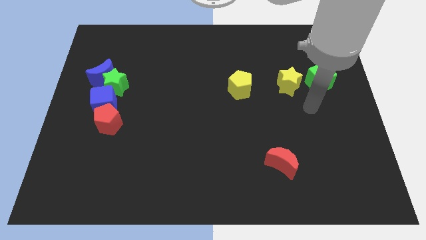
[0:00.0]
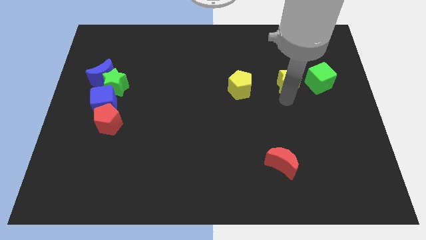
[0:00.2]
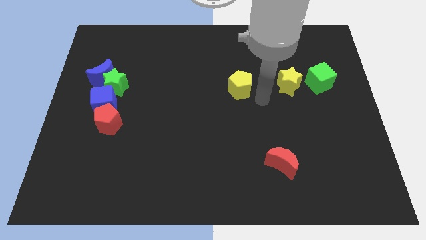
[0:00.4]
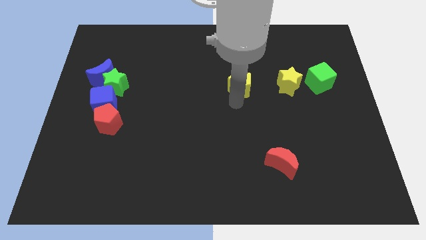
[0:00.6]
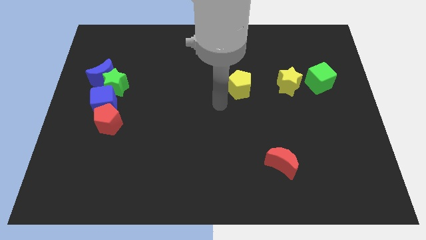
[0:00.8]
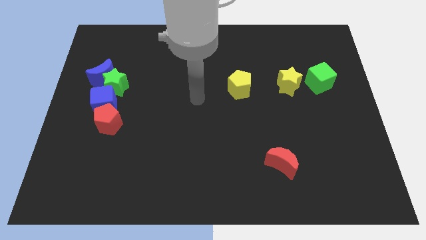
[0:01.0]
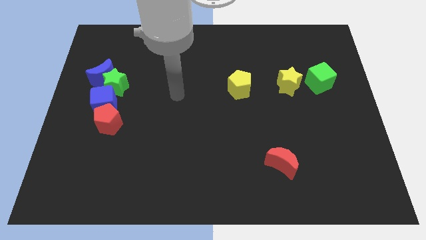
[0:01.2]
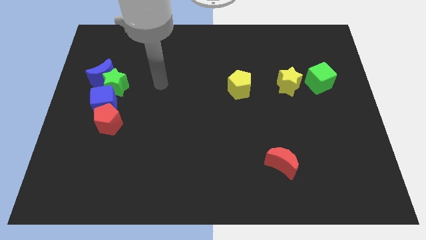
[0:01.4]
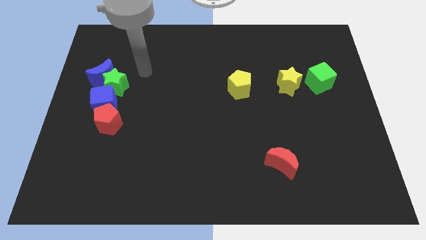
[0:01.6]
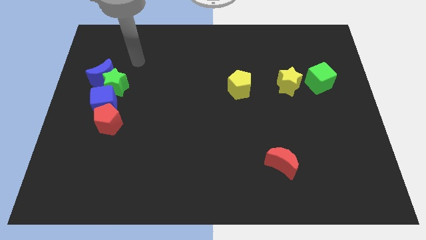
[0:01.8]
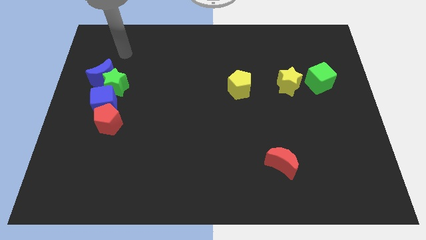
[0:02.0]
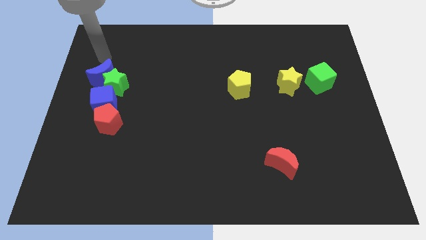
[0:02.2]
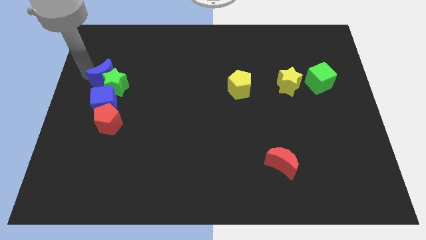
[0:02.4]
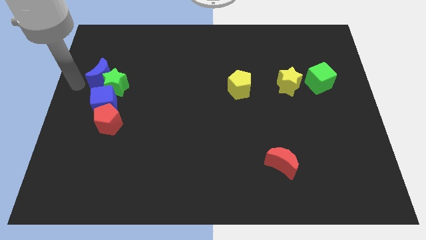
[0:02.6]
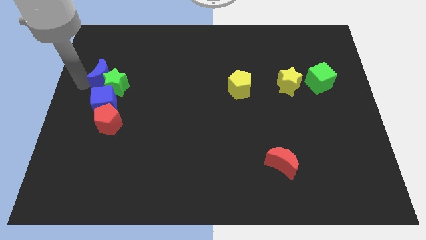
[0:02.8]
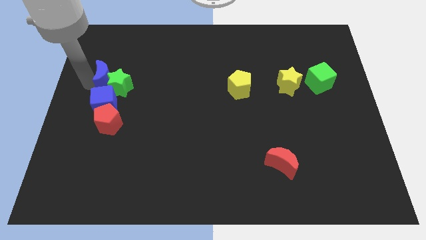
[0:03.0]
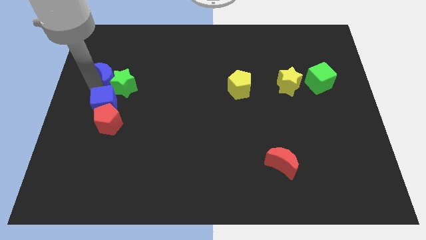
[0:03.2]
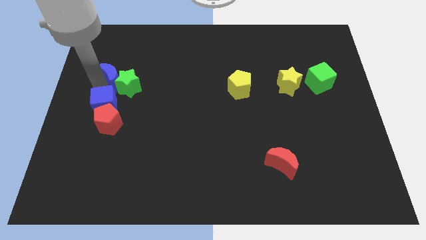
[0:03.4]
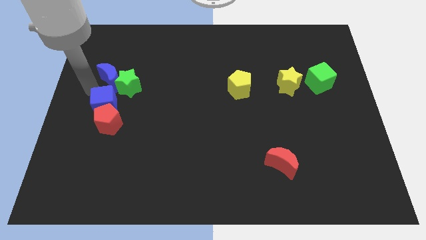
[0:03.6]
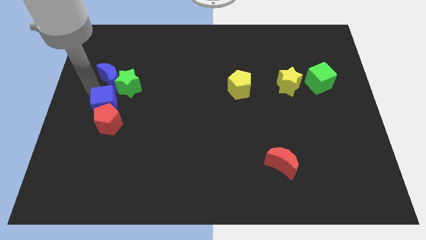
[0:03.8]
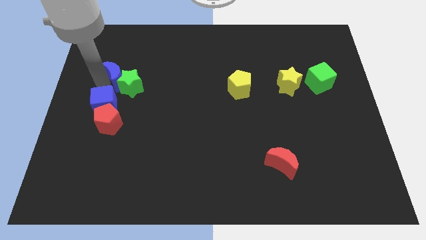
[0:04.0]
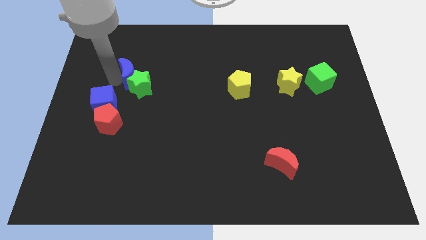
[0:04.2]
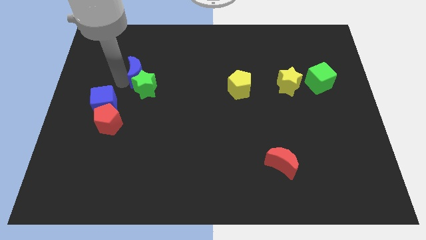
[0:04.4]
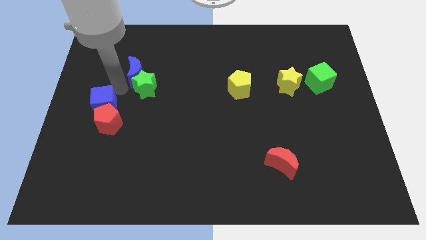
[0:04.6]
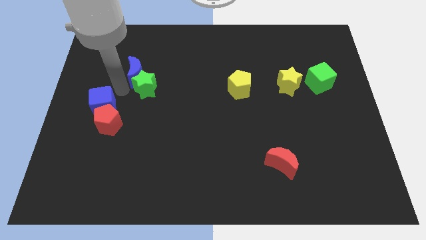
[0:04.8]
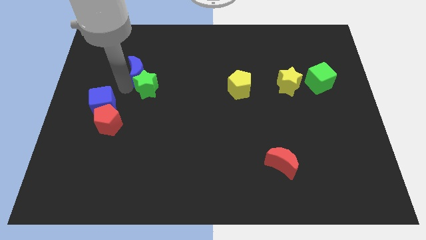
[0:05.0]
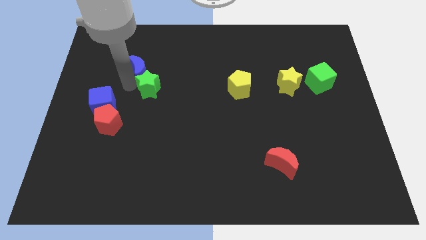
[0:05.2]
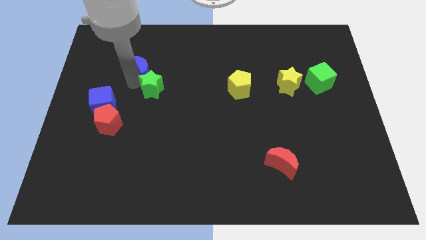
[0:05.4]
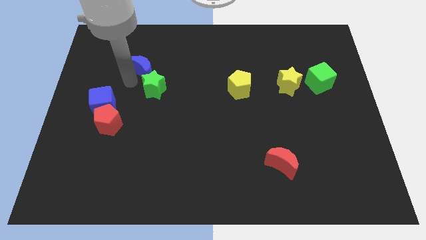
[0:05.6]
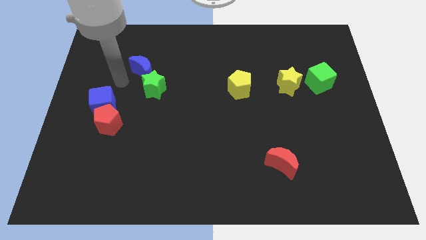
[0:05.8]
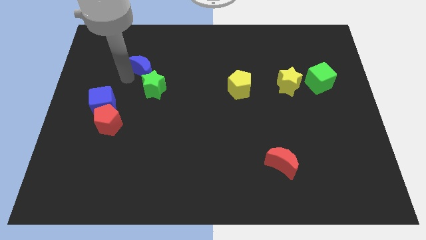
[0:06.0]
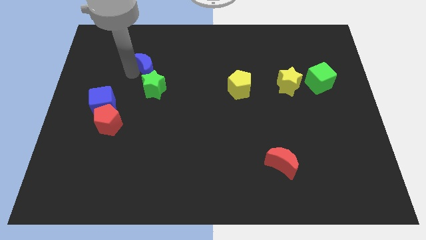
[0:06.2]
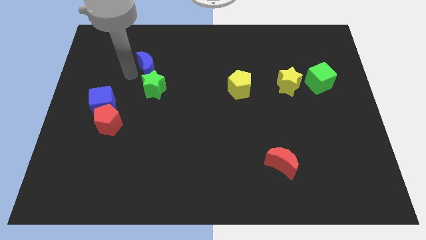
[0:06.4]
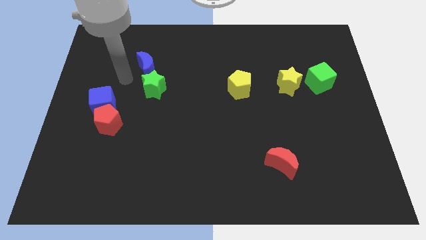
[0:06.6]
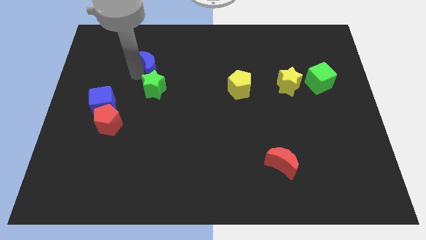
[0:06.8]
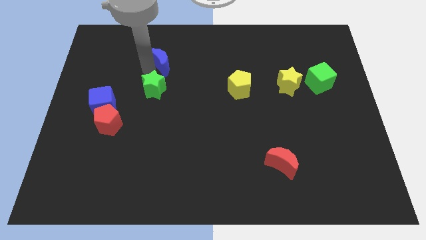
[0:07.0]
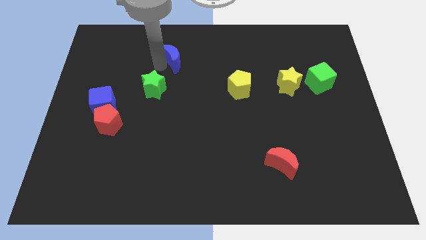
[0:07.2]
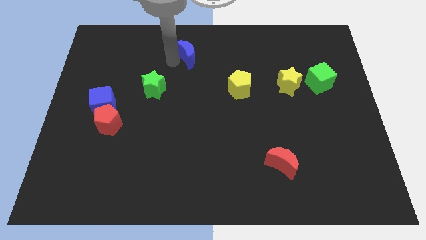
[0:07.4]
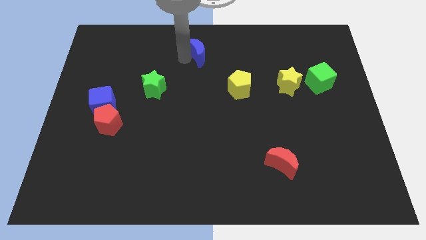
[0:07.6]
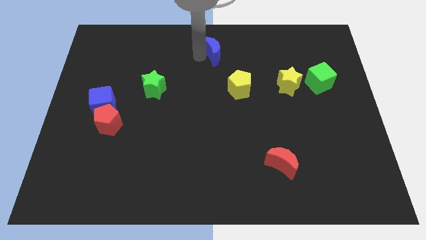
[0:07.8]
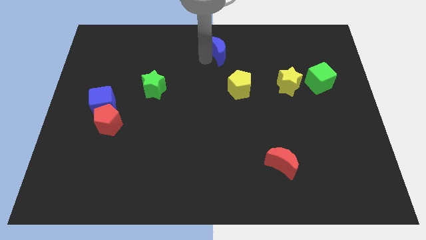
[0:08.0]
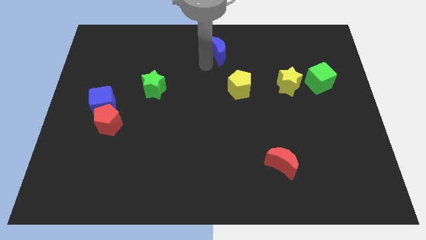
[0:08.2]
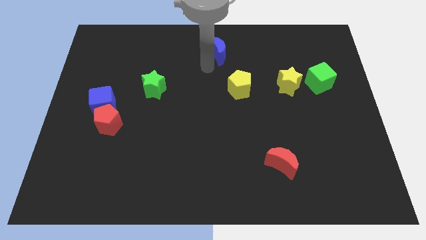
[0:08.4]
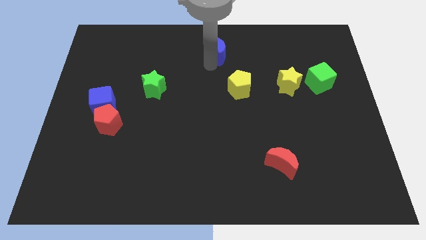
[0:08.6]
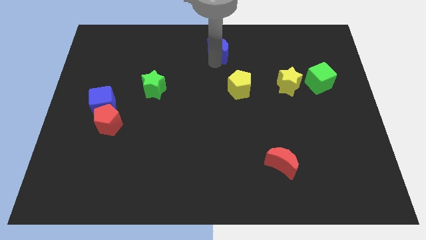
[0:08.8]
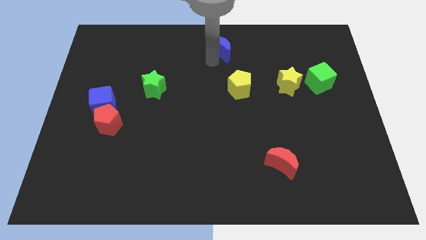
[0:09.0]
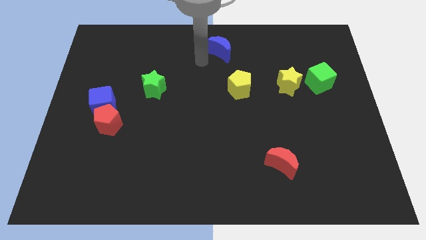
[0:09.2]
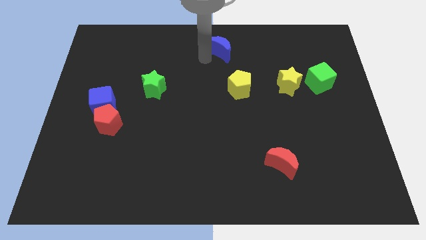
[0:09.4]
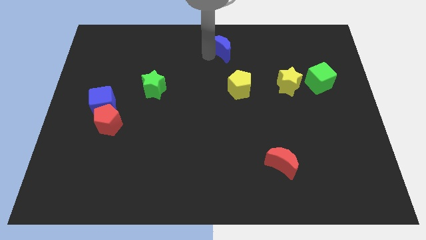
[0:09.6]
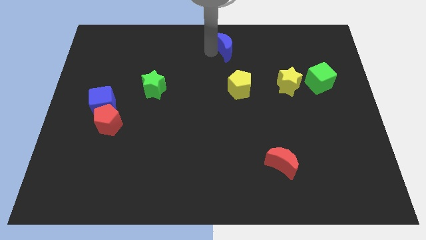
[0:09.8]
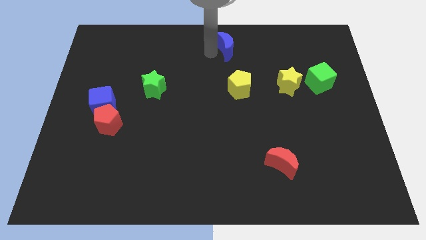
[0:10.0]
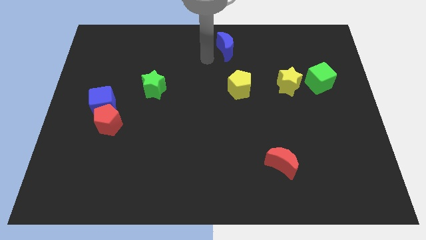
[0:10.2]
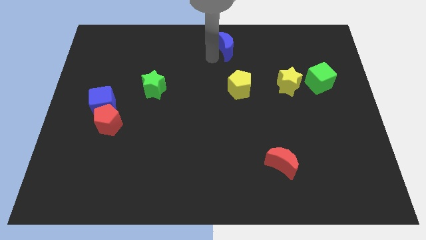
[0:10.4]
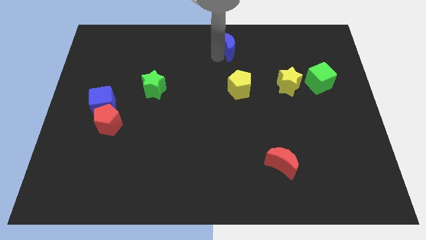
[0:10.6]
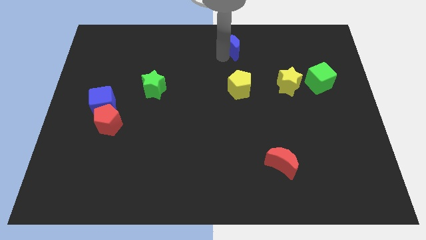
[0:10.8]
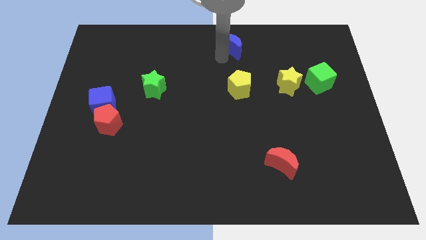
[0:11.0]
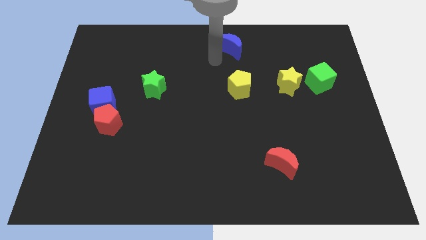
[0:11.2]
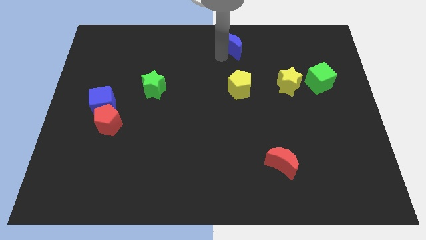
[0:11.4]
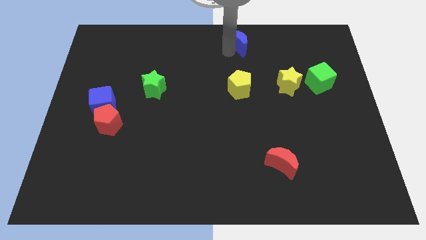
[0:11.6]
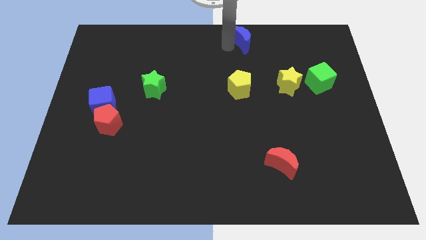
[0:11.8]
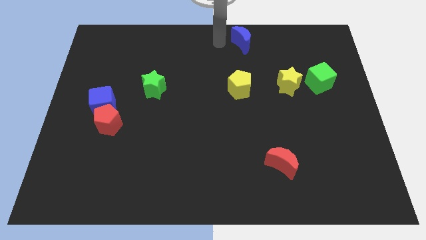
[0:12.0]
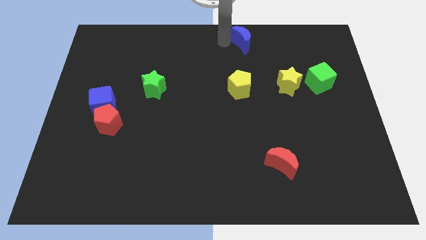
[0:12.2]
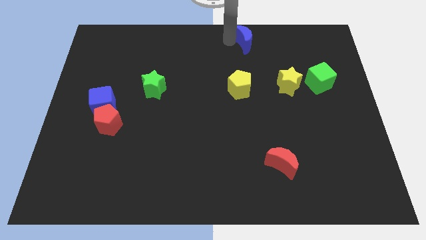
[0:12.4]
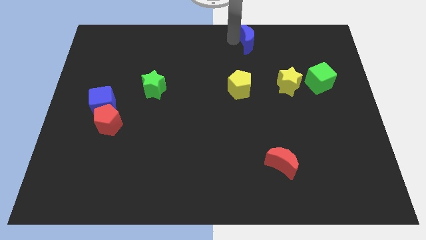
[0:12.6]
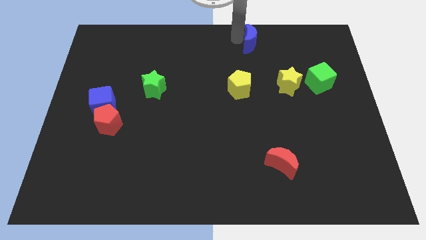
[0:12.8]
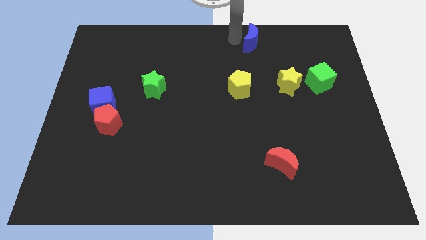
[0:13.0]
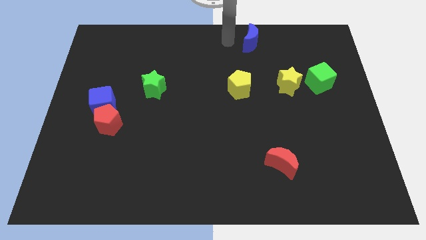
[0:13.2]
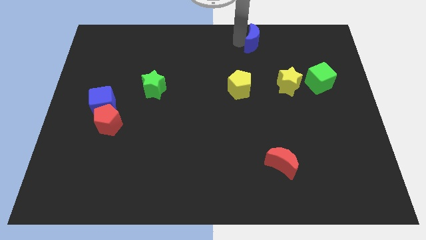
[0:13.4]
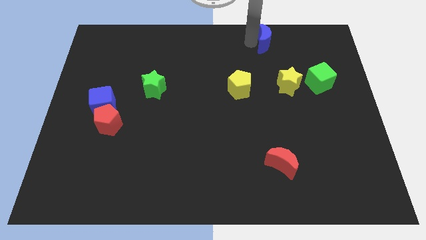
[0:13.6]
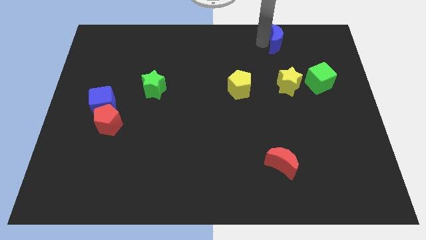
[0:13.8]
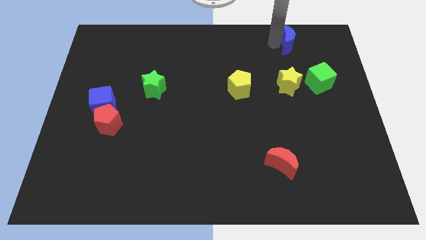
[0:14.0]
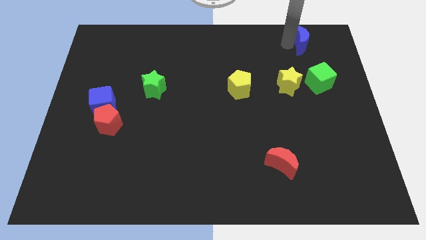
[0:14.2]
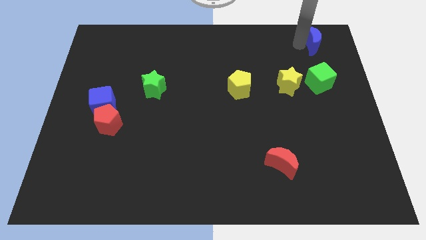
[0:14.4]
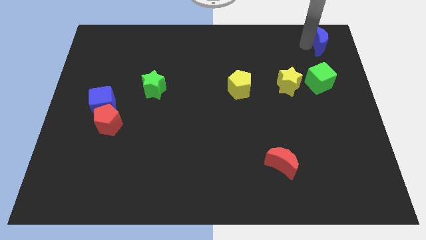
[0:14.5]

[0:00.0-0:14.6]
slide the blue moon to the upper right corner
